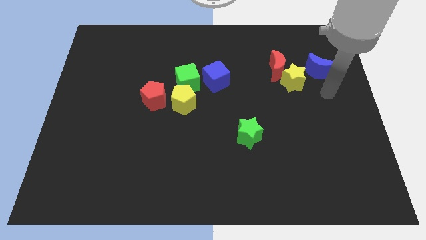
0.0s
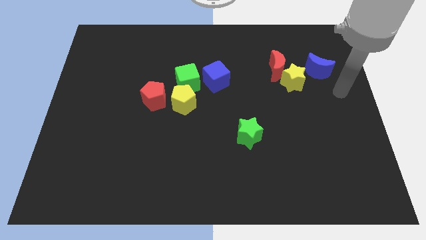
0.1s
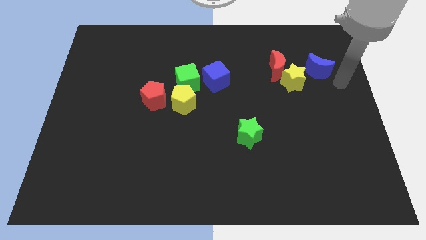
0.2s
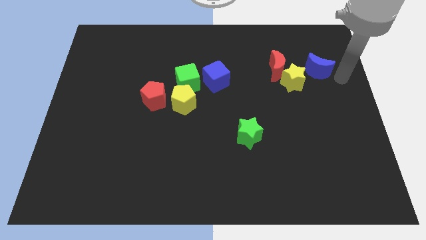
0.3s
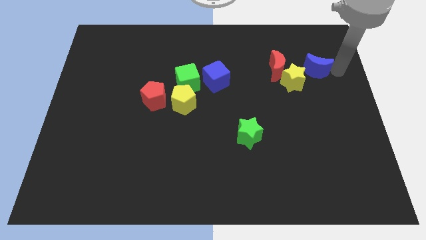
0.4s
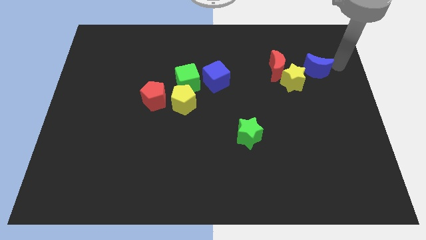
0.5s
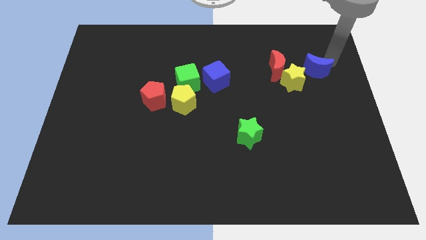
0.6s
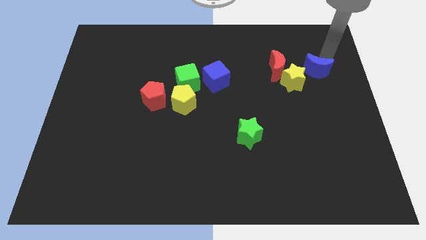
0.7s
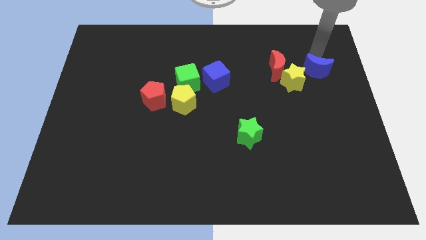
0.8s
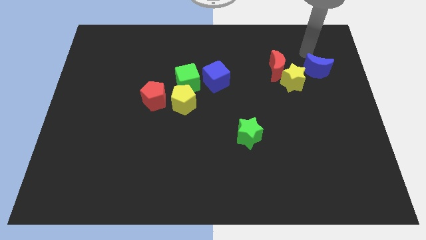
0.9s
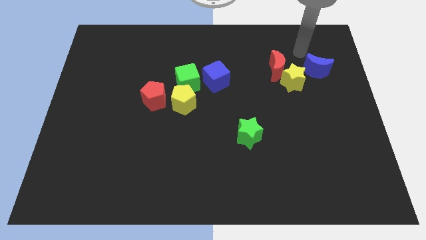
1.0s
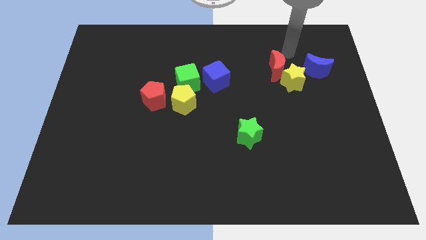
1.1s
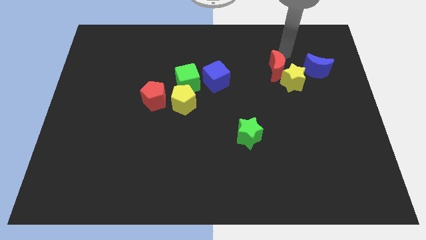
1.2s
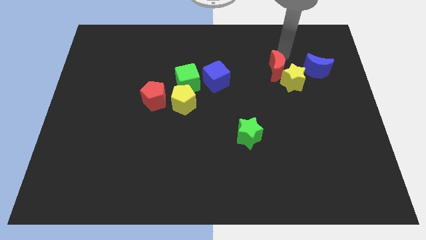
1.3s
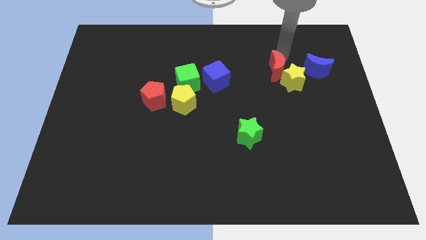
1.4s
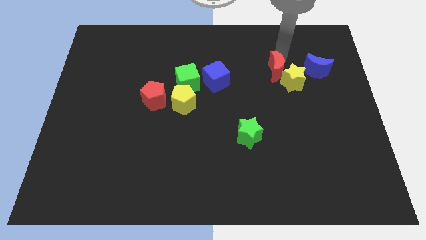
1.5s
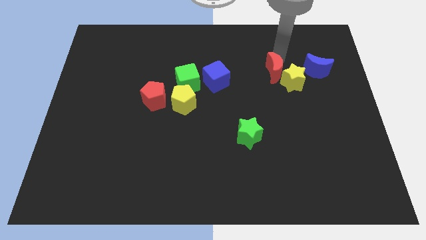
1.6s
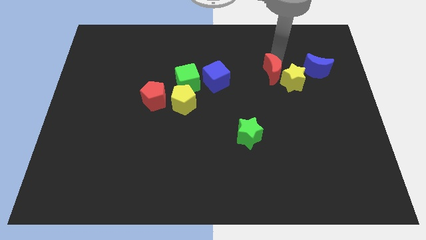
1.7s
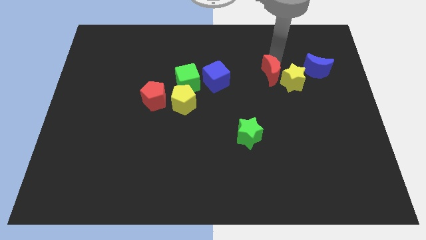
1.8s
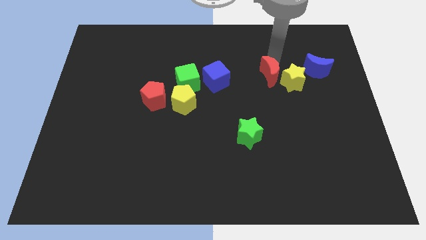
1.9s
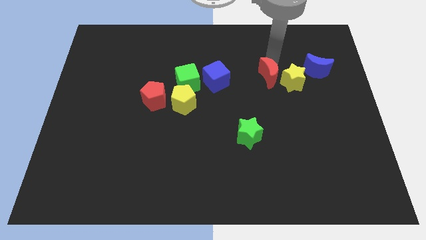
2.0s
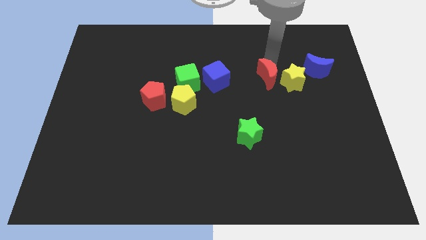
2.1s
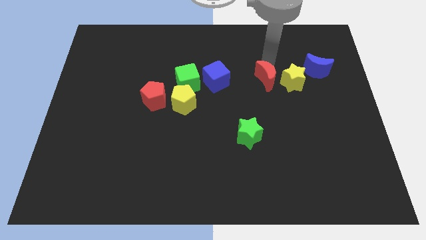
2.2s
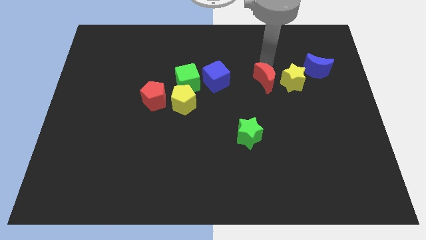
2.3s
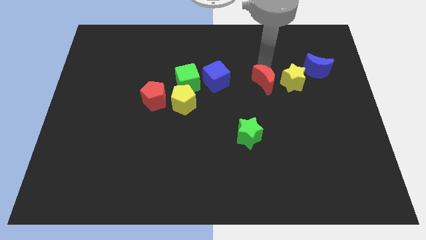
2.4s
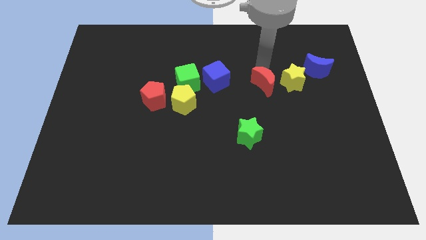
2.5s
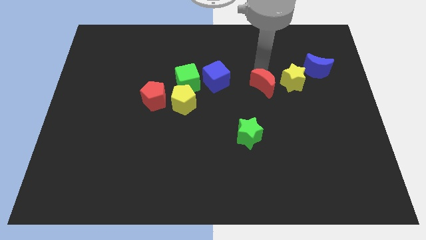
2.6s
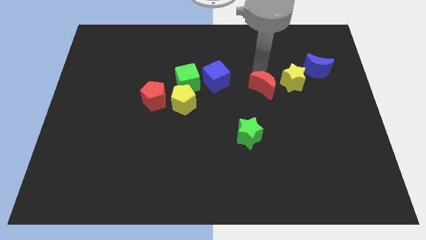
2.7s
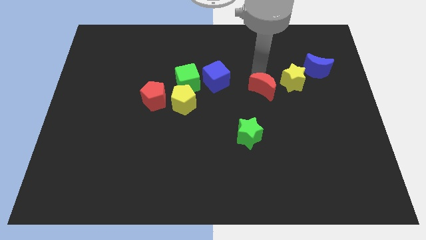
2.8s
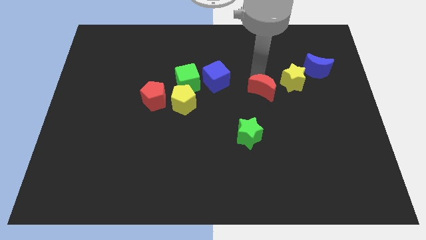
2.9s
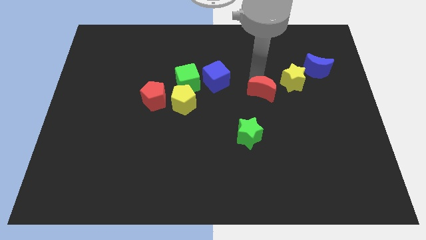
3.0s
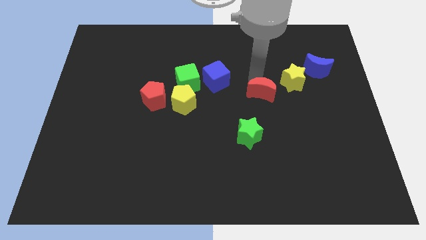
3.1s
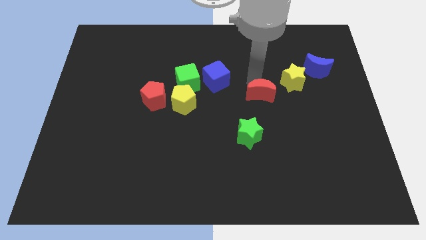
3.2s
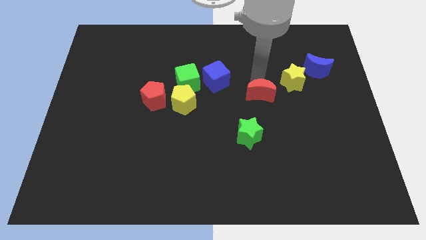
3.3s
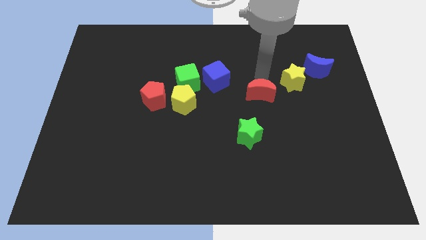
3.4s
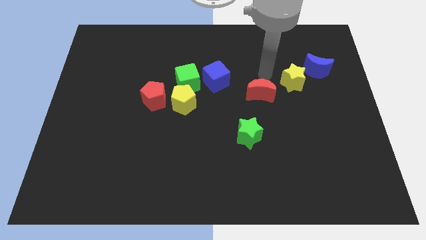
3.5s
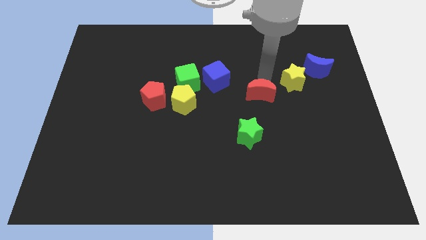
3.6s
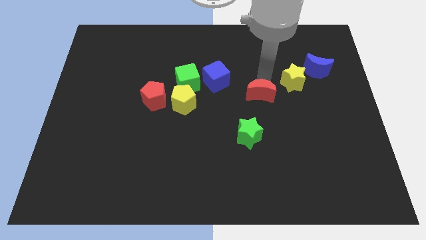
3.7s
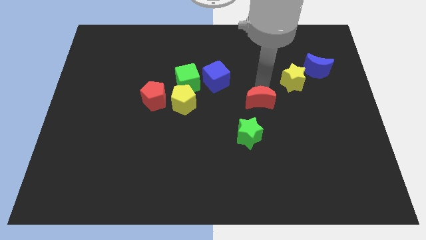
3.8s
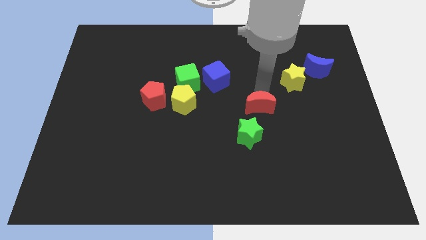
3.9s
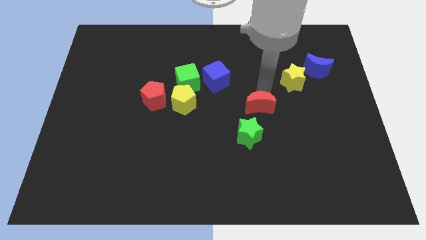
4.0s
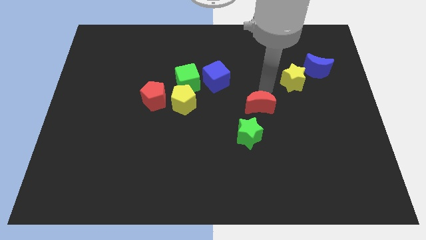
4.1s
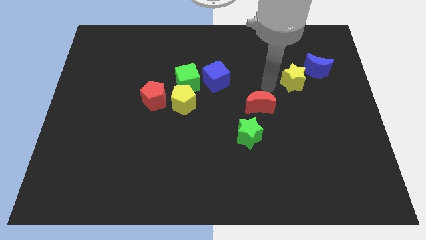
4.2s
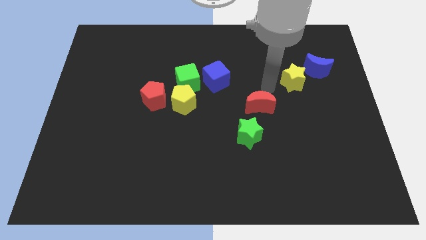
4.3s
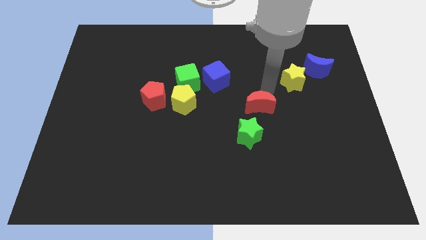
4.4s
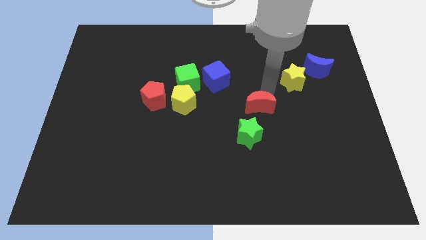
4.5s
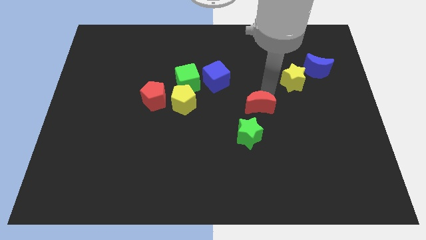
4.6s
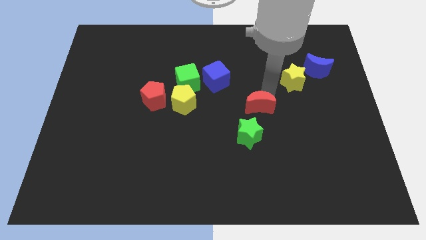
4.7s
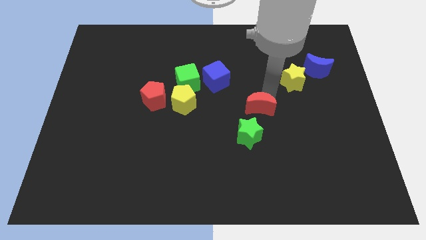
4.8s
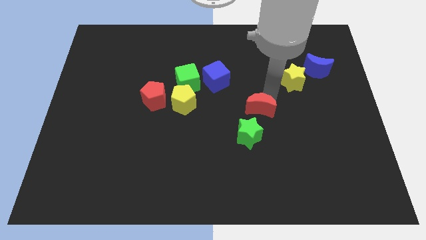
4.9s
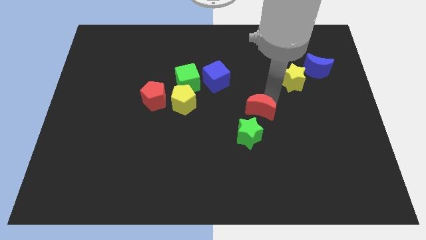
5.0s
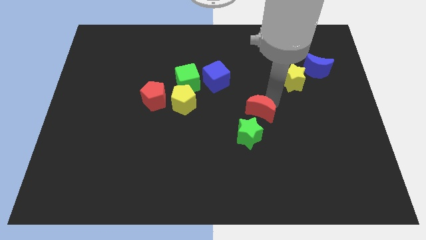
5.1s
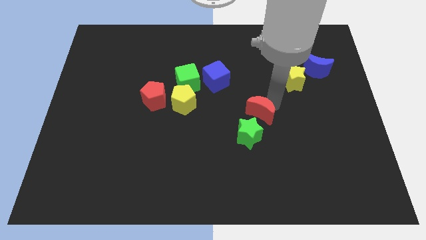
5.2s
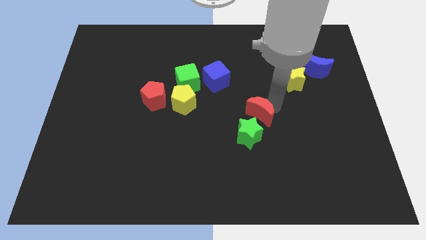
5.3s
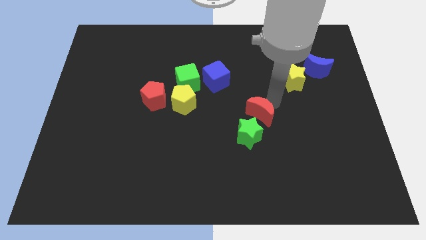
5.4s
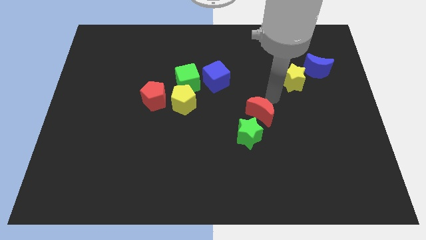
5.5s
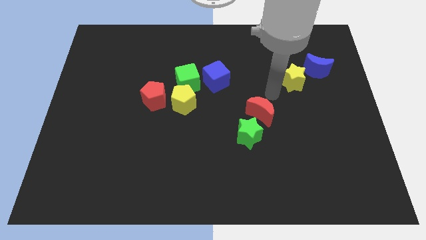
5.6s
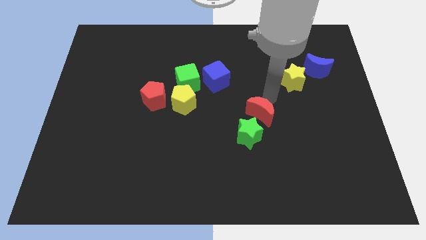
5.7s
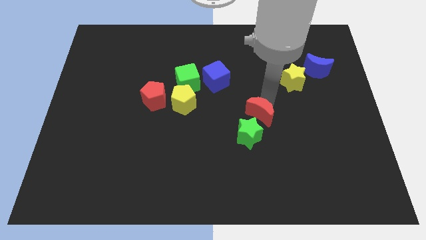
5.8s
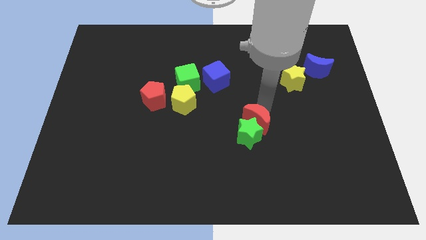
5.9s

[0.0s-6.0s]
push the red moon to the green star

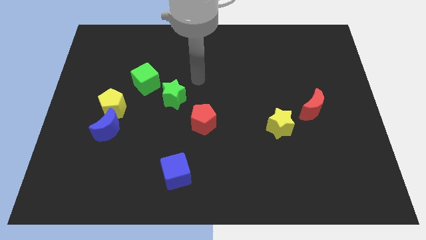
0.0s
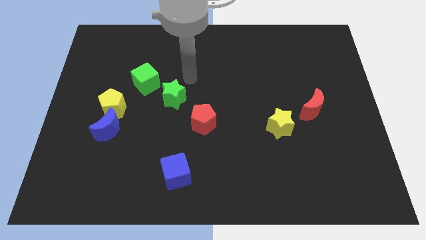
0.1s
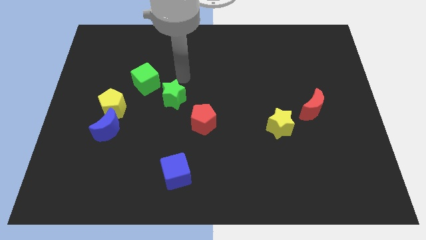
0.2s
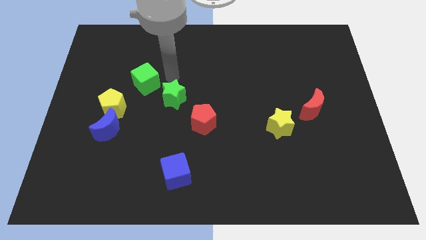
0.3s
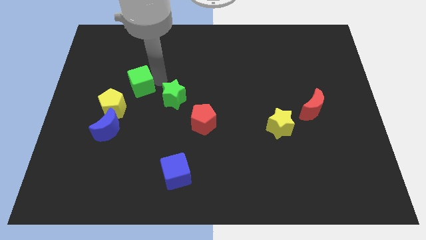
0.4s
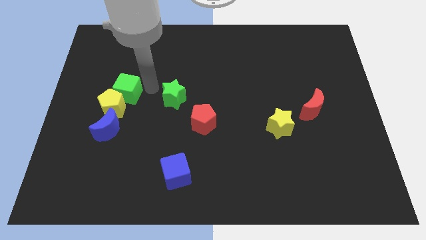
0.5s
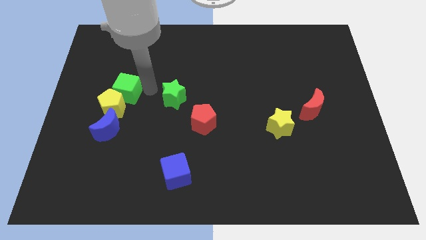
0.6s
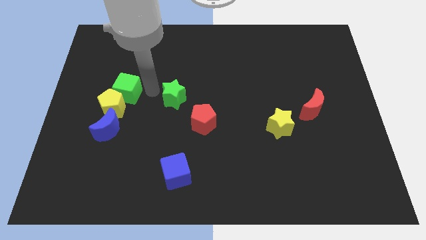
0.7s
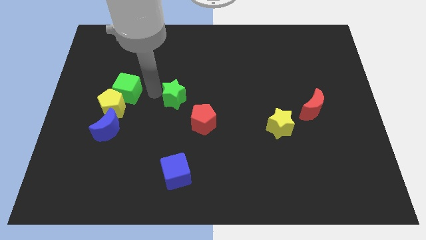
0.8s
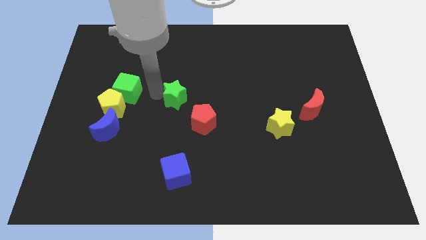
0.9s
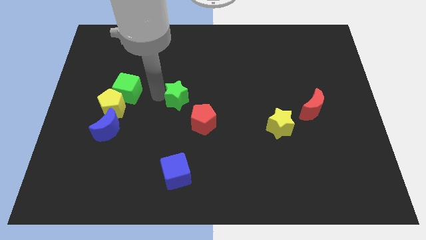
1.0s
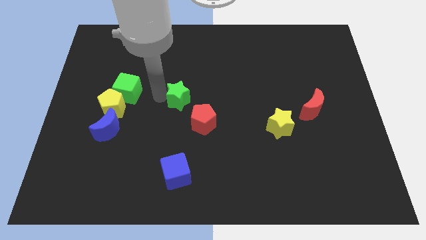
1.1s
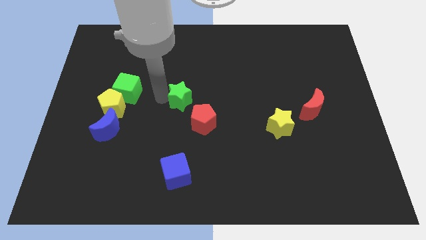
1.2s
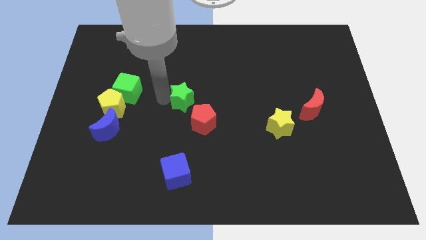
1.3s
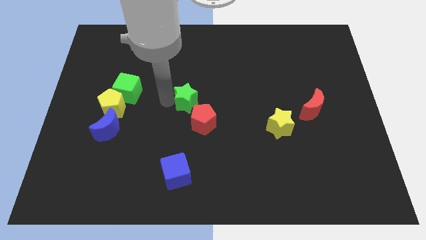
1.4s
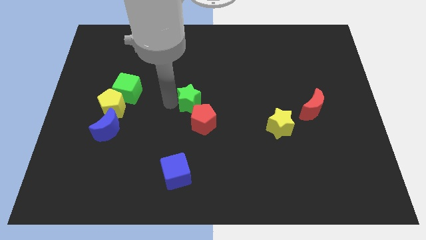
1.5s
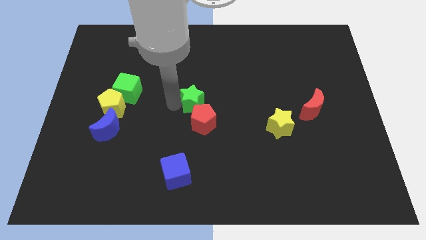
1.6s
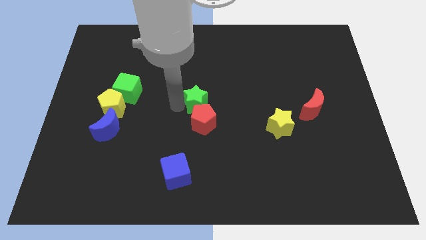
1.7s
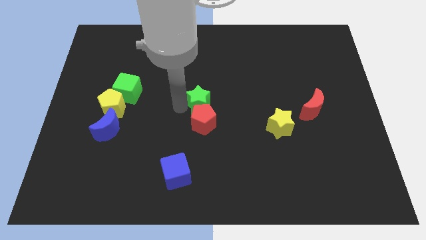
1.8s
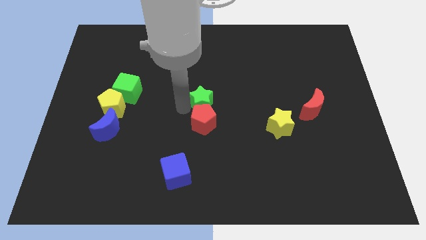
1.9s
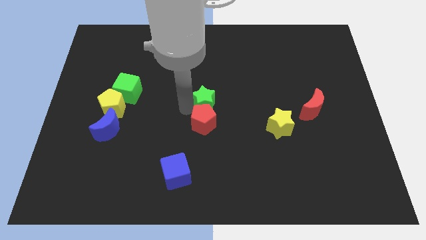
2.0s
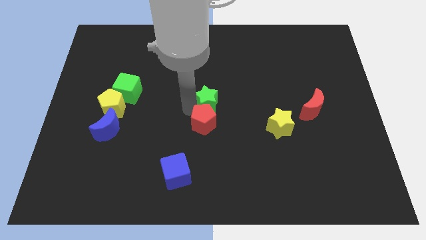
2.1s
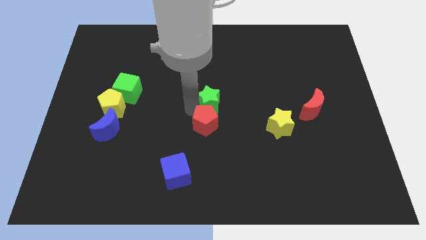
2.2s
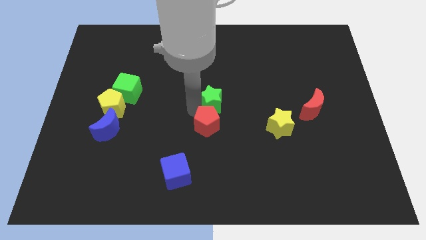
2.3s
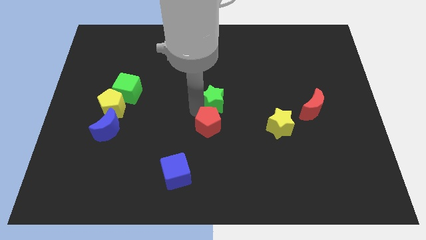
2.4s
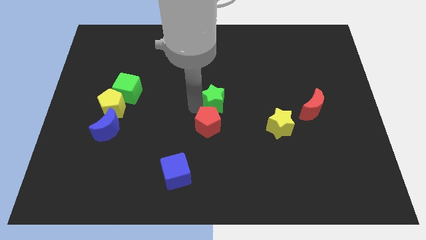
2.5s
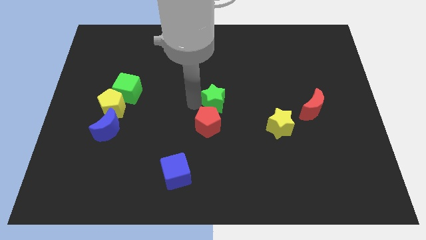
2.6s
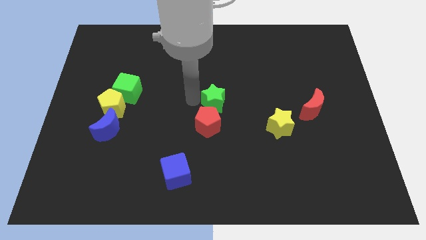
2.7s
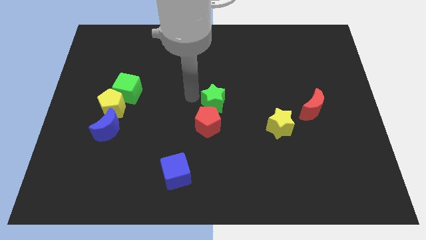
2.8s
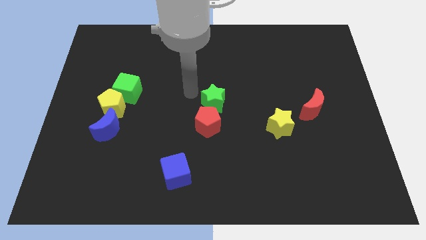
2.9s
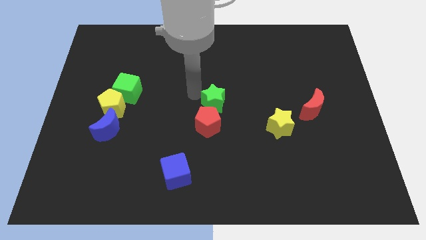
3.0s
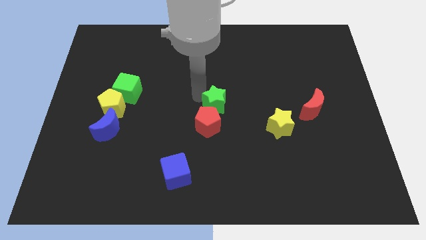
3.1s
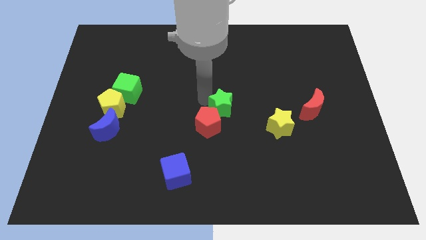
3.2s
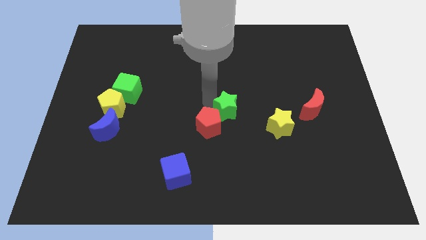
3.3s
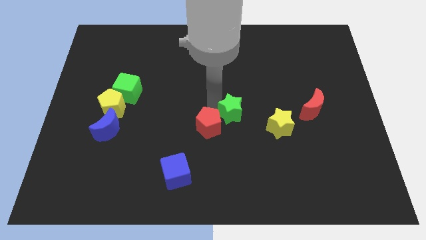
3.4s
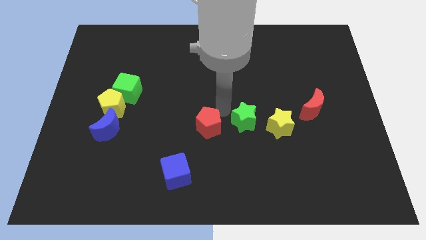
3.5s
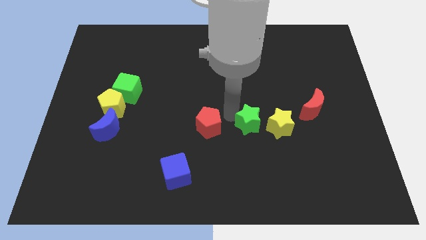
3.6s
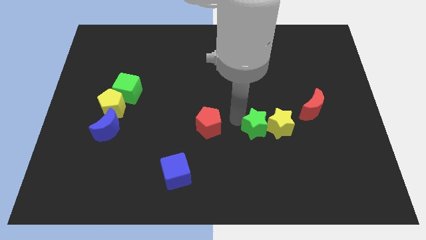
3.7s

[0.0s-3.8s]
move the green star close to the yellow star
